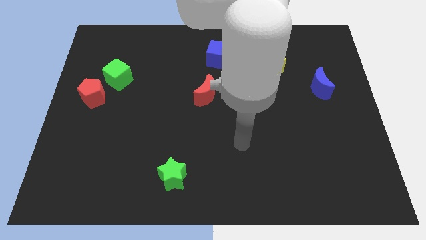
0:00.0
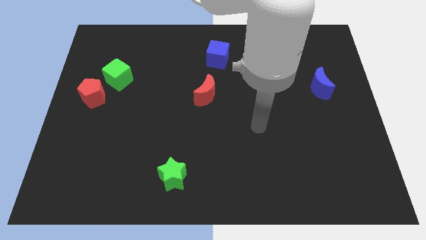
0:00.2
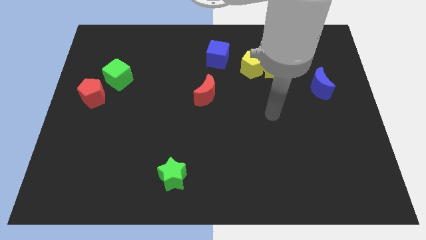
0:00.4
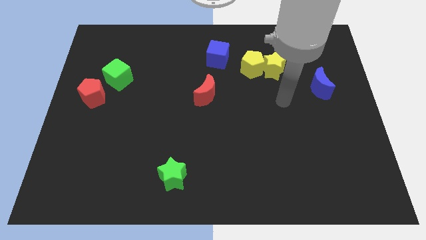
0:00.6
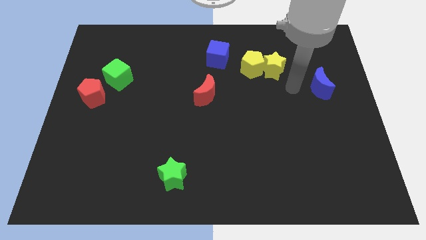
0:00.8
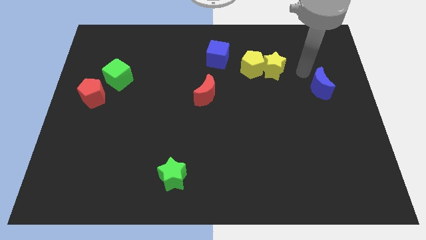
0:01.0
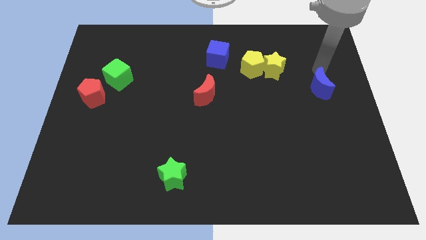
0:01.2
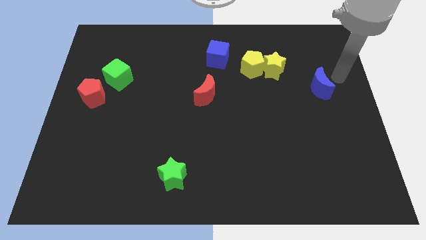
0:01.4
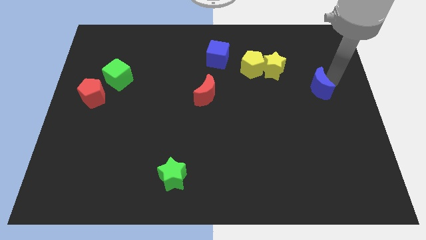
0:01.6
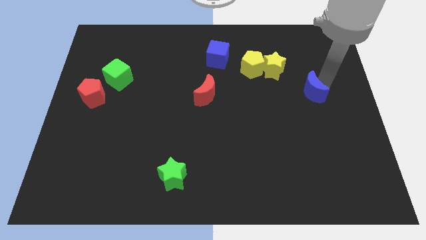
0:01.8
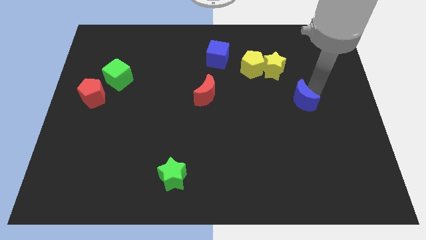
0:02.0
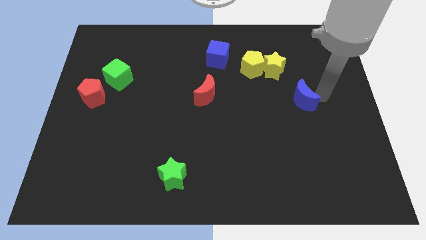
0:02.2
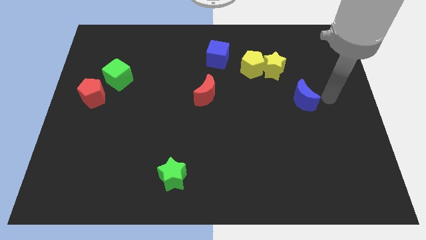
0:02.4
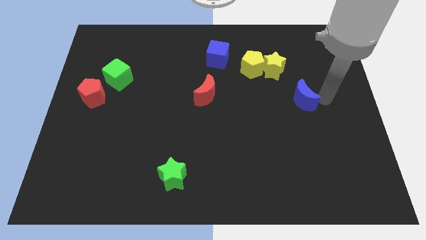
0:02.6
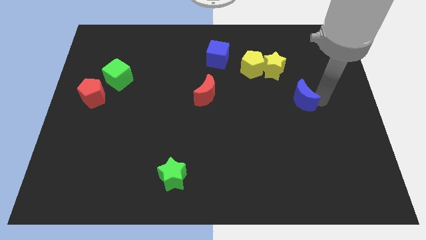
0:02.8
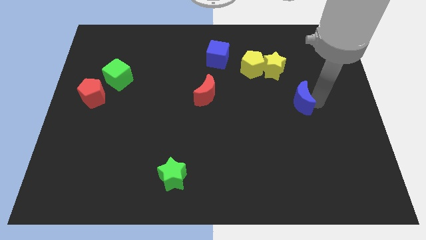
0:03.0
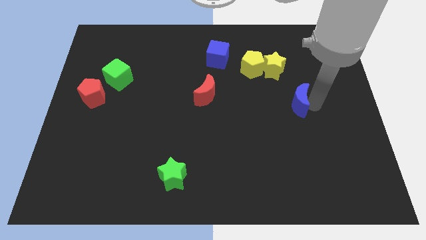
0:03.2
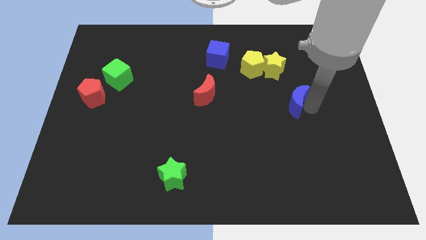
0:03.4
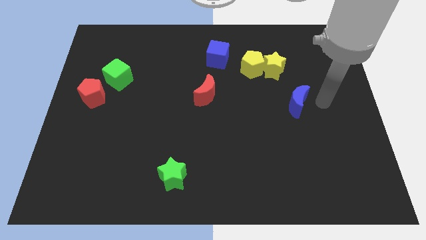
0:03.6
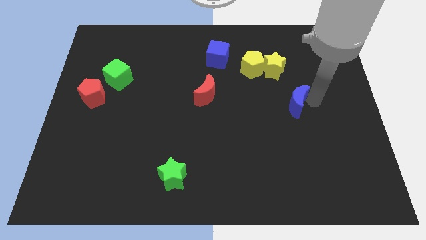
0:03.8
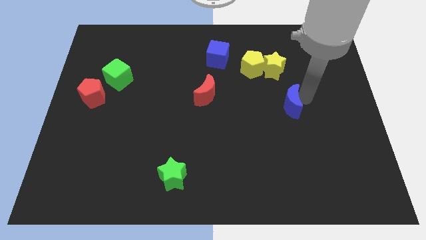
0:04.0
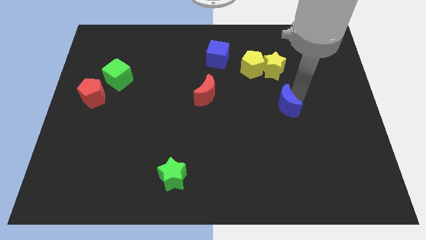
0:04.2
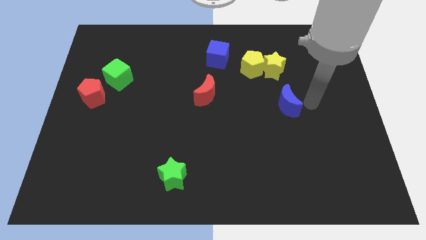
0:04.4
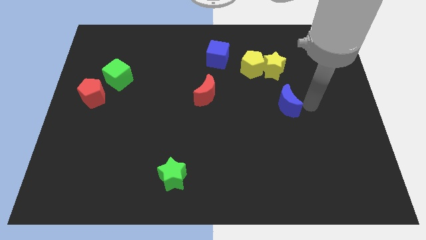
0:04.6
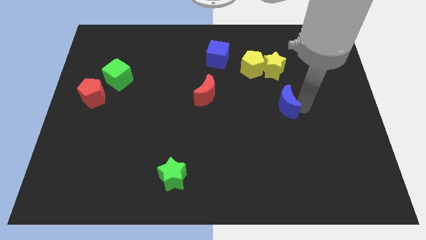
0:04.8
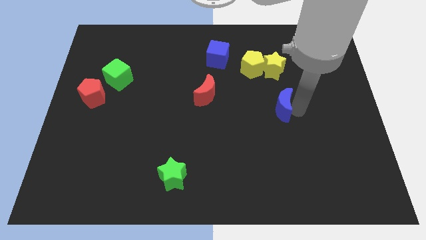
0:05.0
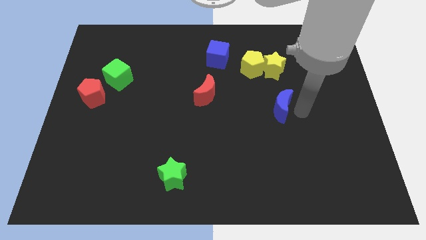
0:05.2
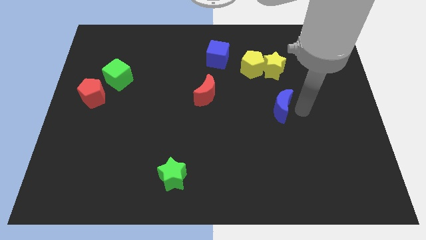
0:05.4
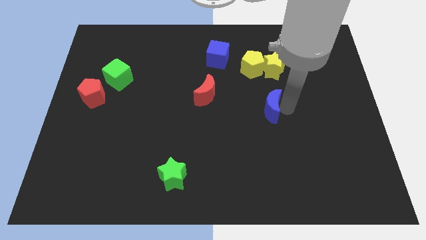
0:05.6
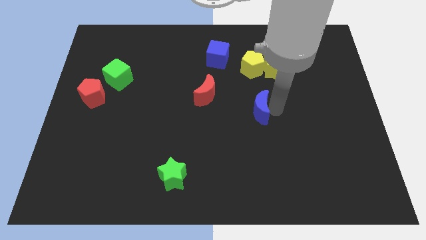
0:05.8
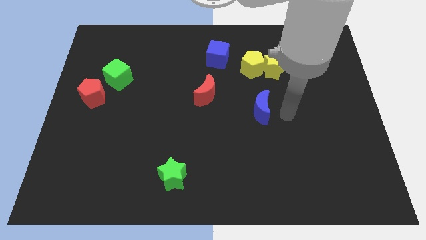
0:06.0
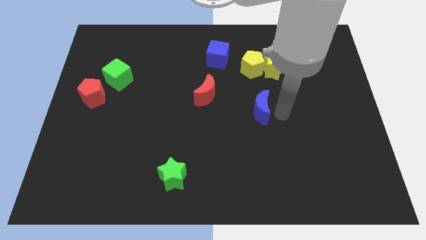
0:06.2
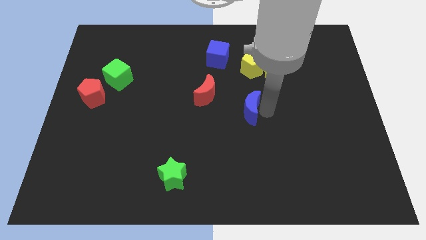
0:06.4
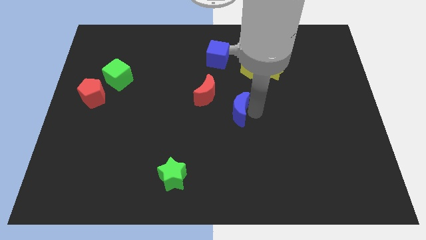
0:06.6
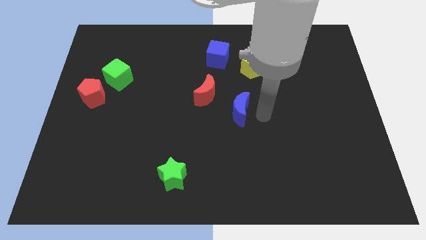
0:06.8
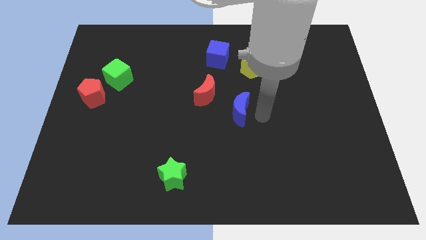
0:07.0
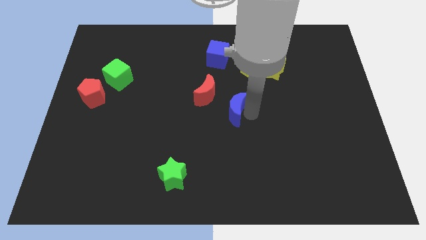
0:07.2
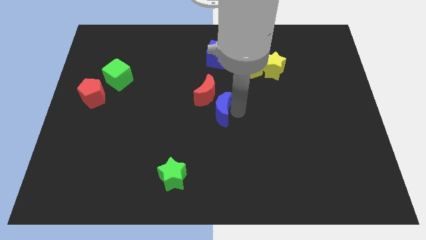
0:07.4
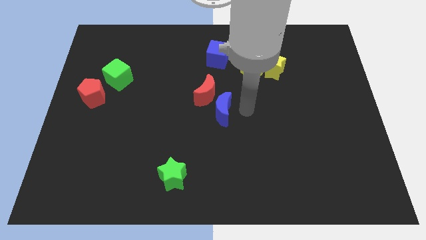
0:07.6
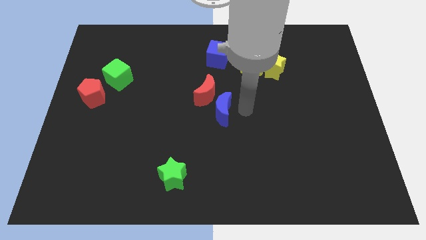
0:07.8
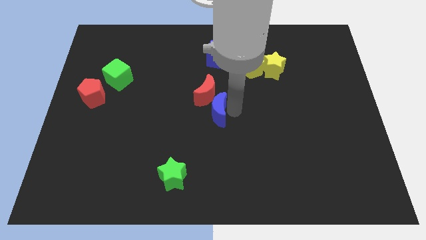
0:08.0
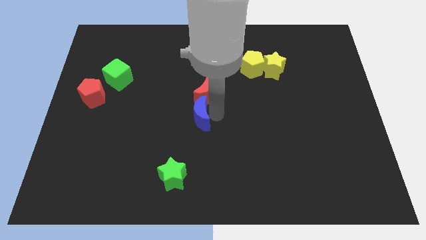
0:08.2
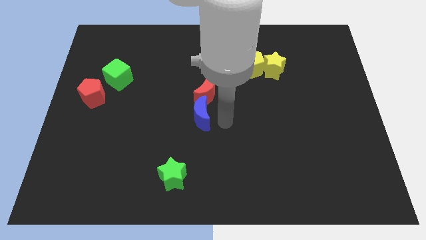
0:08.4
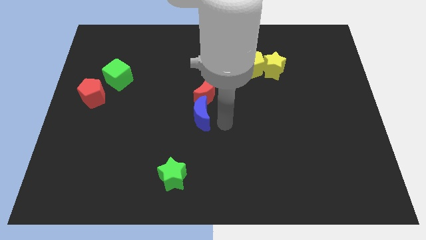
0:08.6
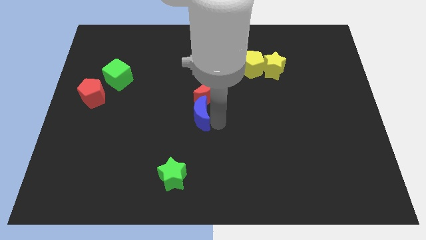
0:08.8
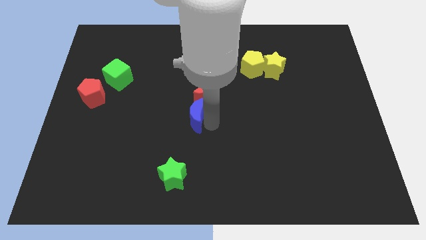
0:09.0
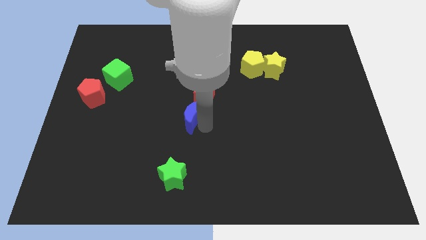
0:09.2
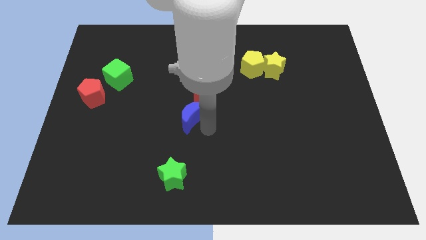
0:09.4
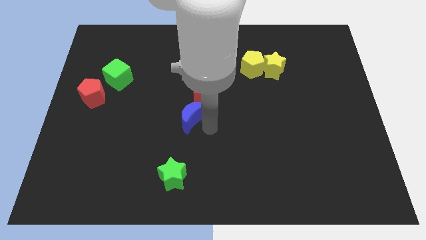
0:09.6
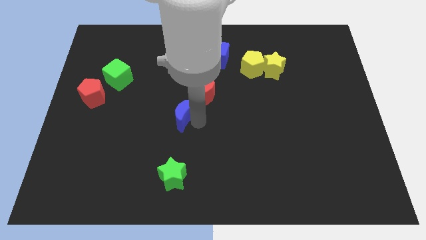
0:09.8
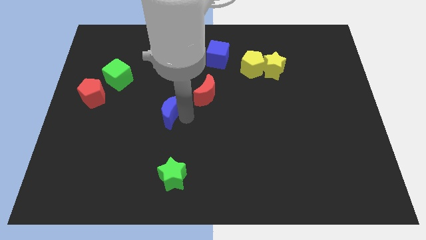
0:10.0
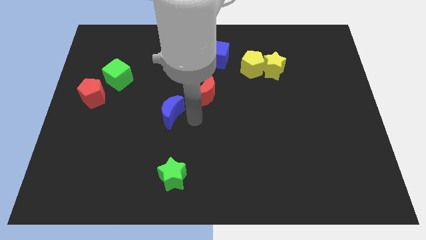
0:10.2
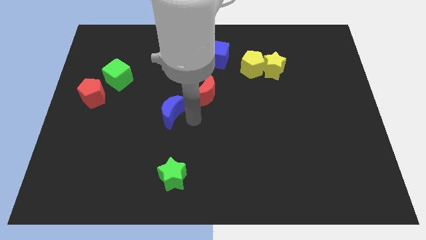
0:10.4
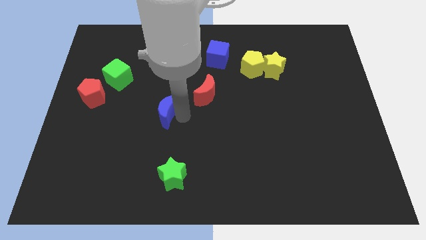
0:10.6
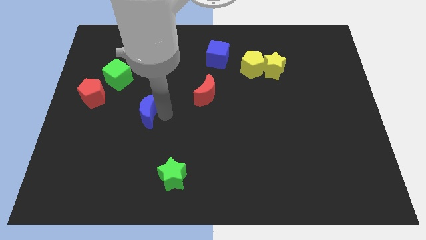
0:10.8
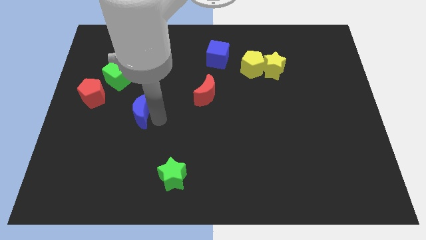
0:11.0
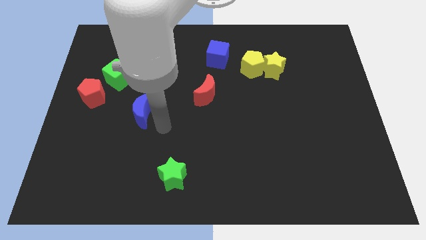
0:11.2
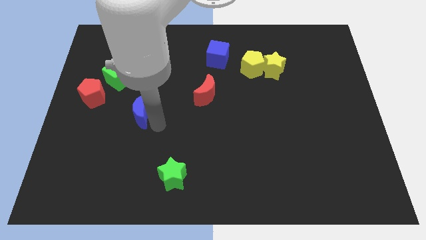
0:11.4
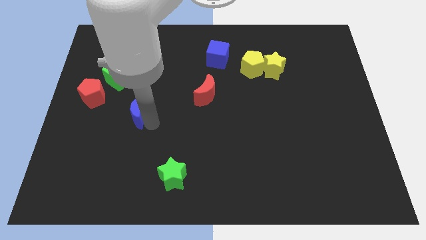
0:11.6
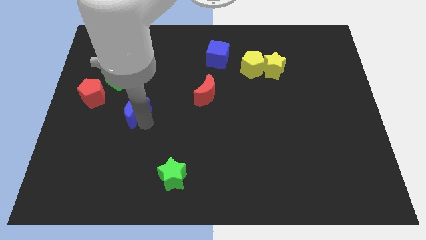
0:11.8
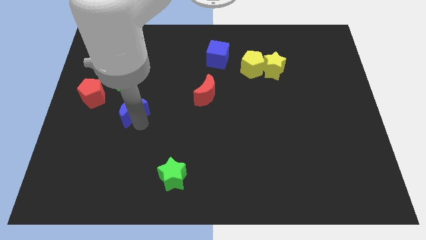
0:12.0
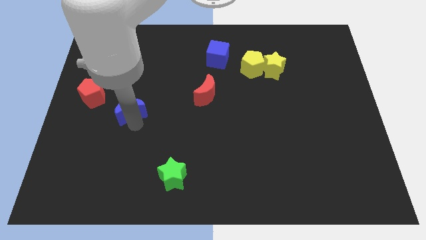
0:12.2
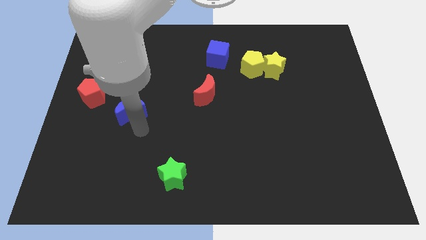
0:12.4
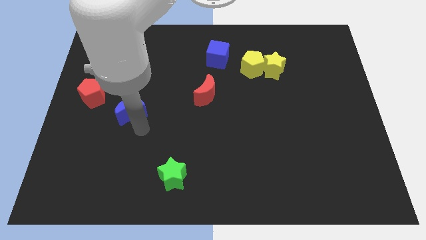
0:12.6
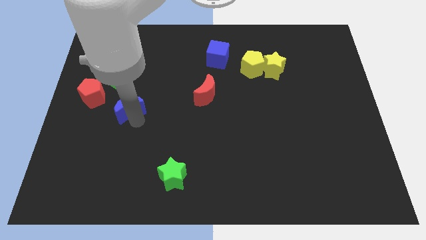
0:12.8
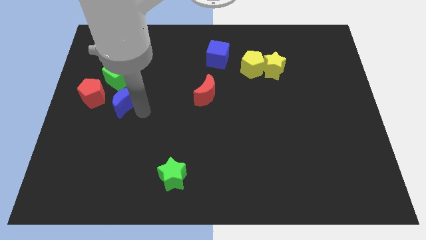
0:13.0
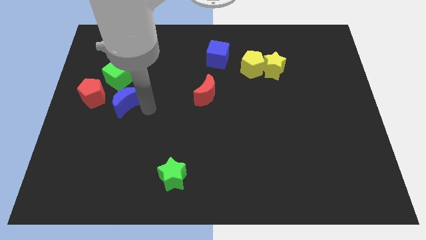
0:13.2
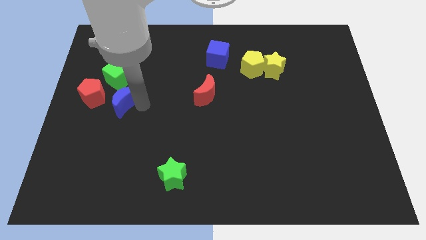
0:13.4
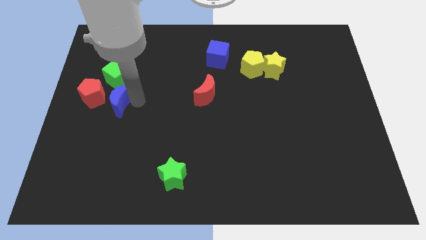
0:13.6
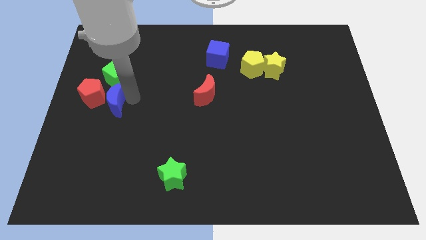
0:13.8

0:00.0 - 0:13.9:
push the blue moon next to the red pentagon
